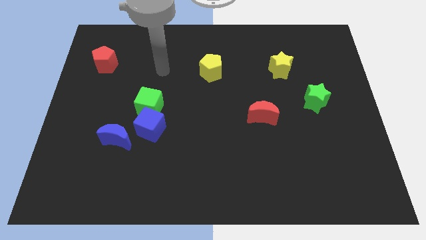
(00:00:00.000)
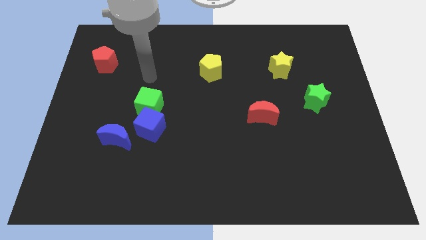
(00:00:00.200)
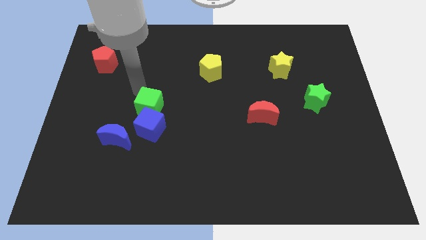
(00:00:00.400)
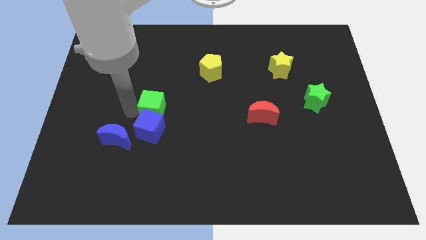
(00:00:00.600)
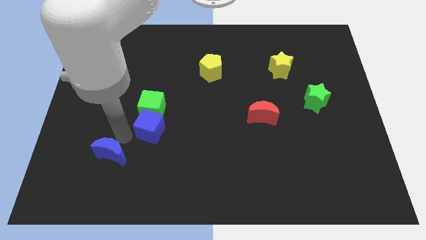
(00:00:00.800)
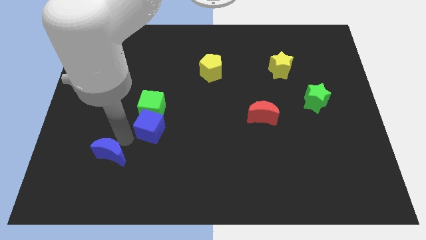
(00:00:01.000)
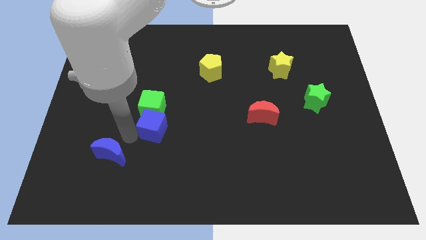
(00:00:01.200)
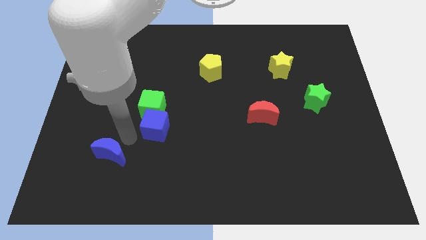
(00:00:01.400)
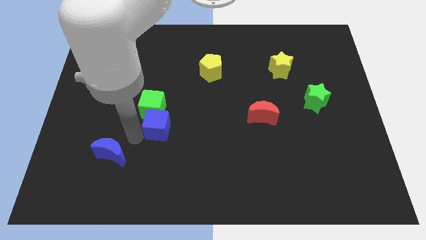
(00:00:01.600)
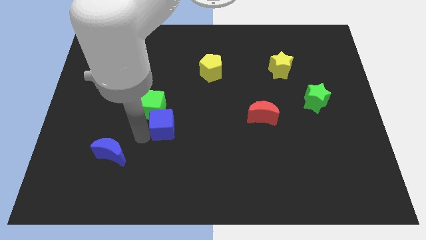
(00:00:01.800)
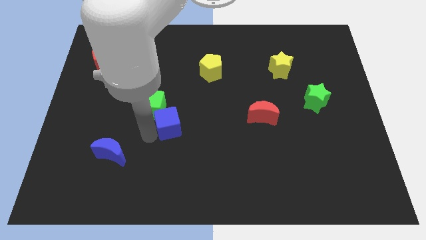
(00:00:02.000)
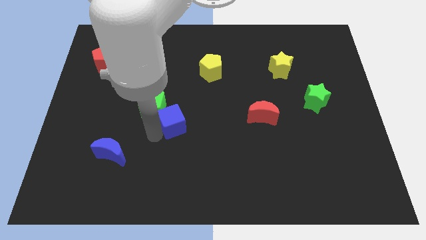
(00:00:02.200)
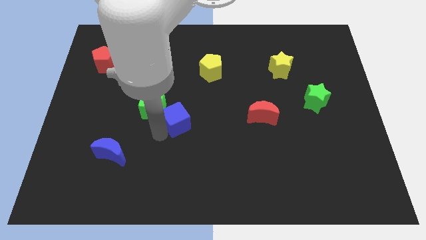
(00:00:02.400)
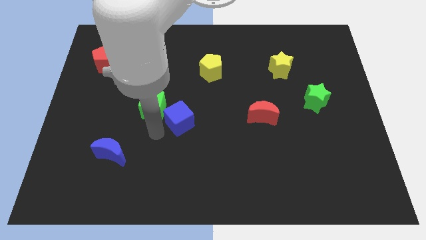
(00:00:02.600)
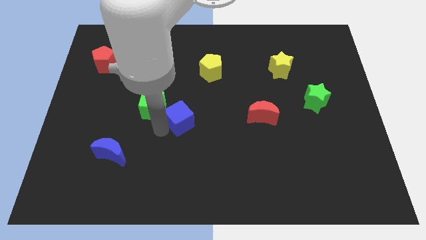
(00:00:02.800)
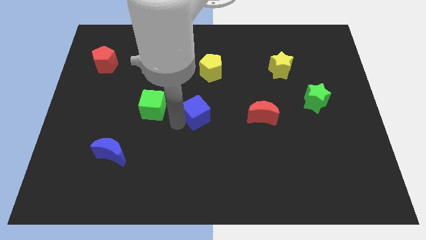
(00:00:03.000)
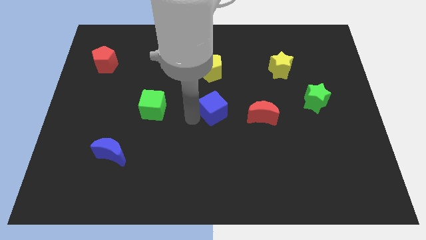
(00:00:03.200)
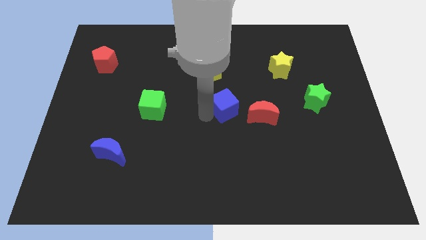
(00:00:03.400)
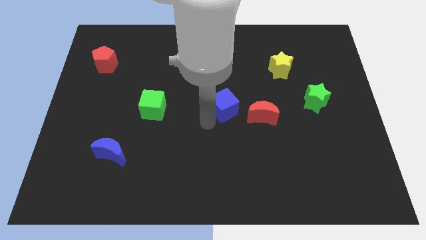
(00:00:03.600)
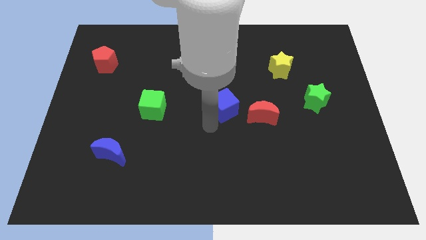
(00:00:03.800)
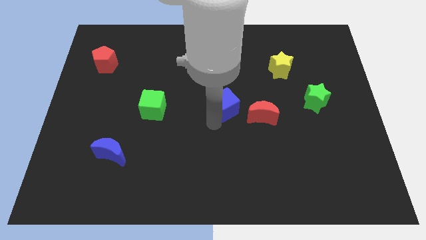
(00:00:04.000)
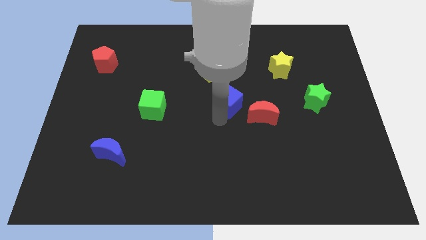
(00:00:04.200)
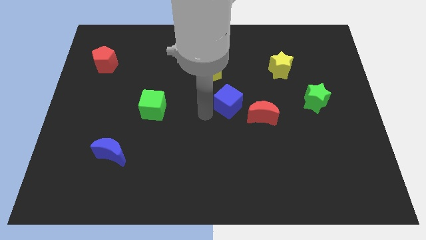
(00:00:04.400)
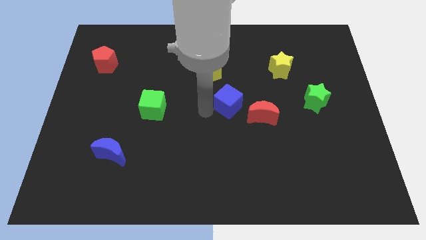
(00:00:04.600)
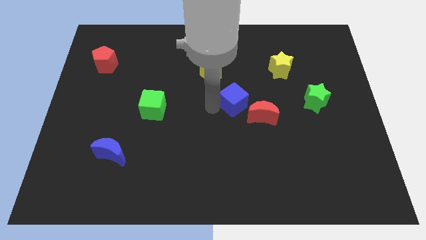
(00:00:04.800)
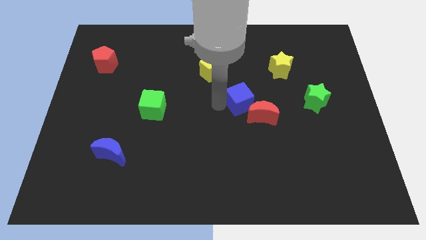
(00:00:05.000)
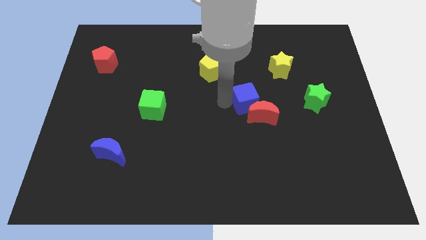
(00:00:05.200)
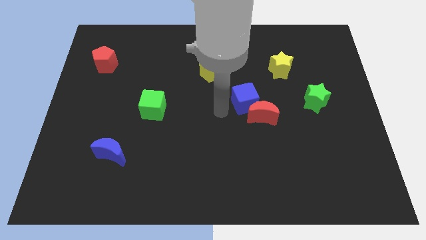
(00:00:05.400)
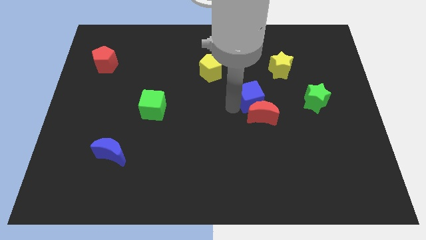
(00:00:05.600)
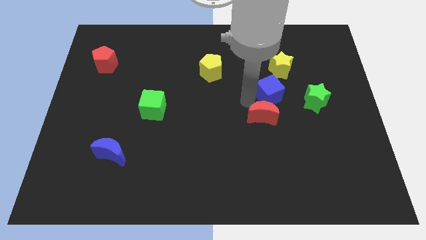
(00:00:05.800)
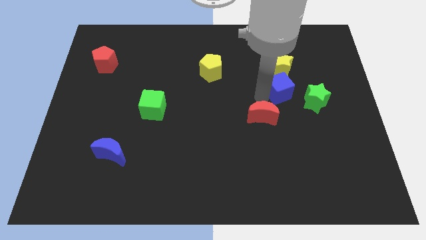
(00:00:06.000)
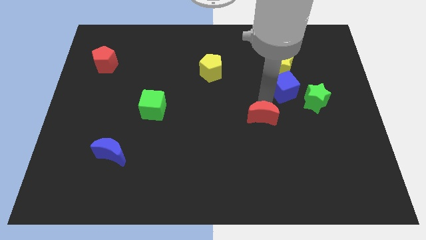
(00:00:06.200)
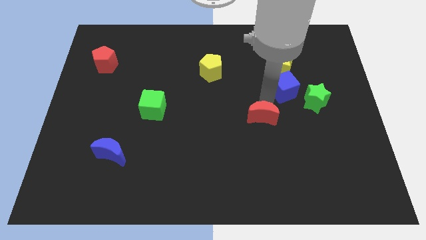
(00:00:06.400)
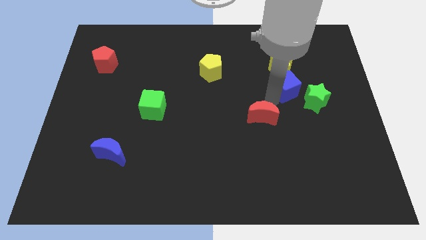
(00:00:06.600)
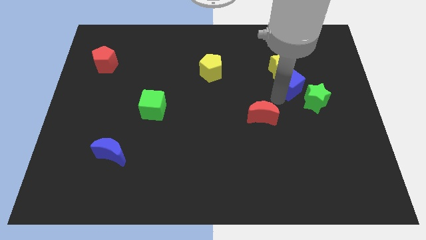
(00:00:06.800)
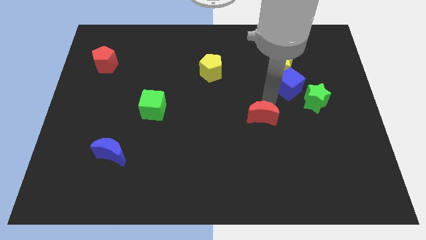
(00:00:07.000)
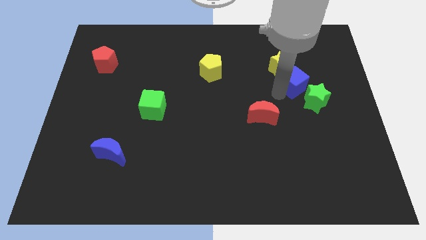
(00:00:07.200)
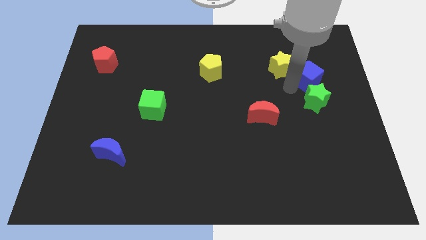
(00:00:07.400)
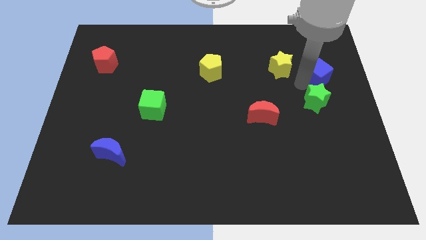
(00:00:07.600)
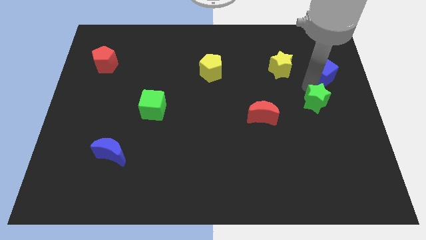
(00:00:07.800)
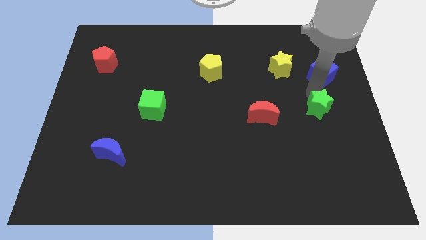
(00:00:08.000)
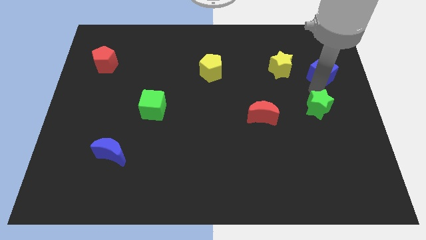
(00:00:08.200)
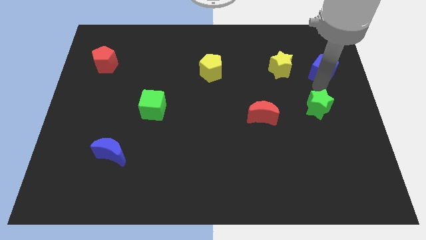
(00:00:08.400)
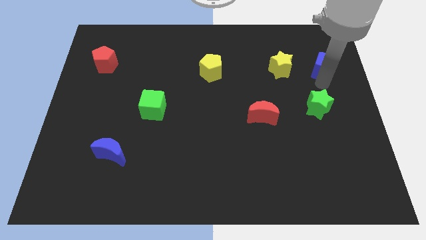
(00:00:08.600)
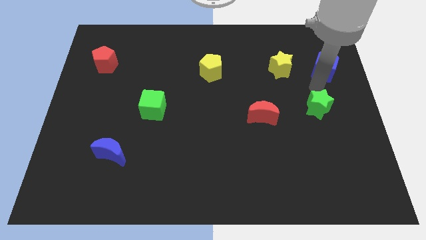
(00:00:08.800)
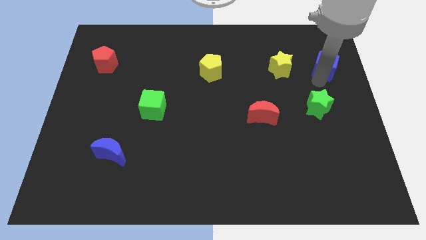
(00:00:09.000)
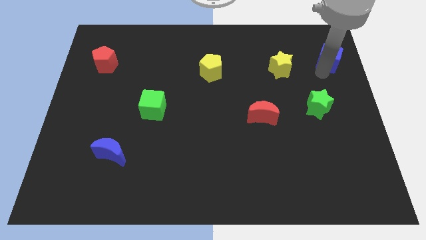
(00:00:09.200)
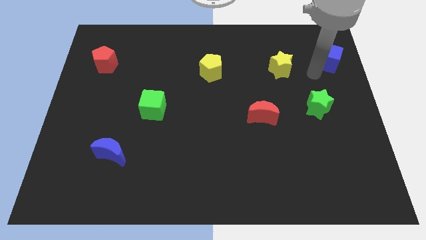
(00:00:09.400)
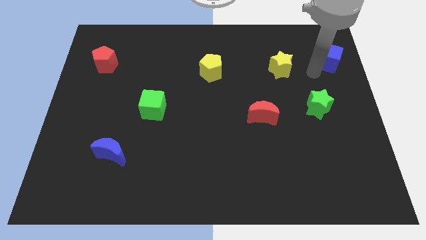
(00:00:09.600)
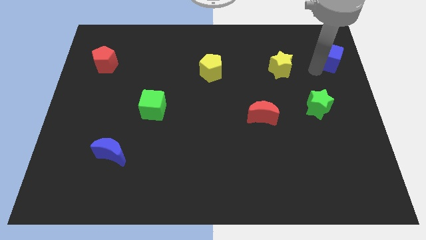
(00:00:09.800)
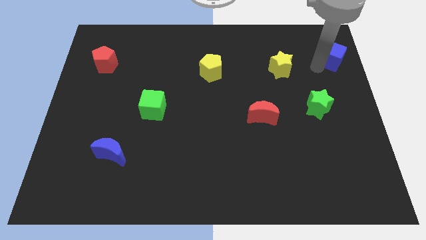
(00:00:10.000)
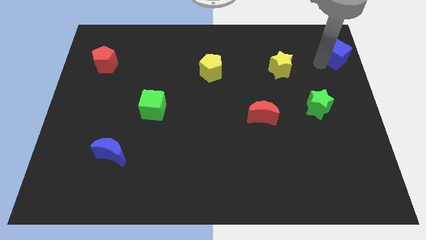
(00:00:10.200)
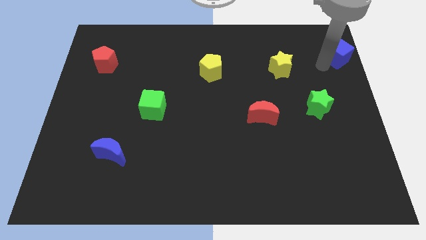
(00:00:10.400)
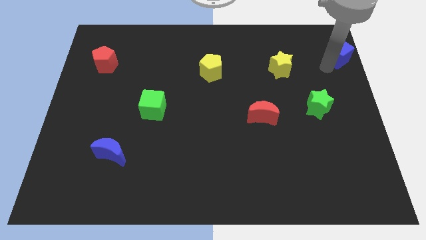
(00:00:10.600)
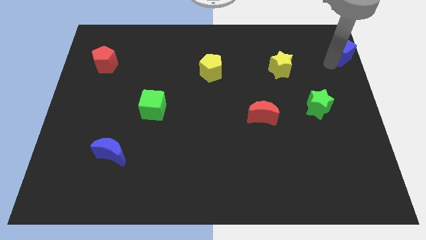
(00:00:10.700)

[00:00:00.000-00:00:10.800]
move the blue cube to the top right

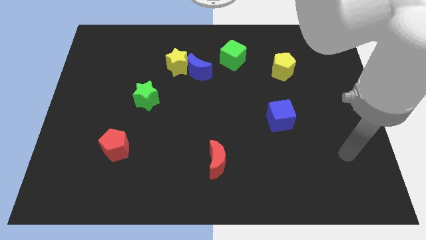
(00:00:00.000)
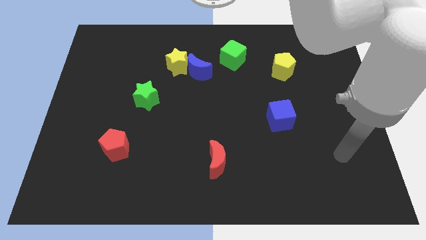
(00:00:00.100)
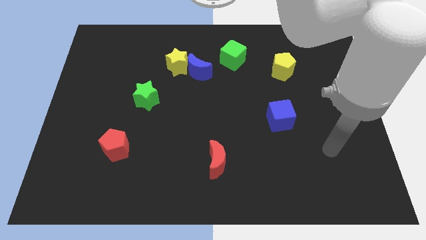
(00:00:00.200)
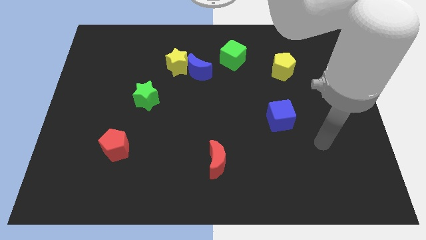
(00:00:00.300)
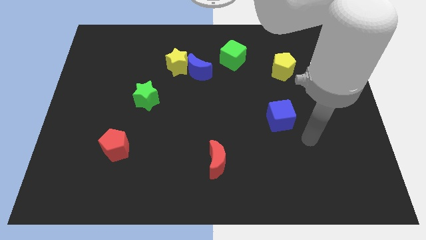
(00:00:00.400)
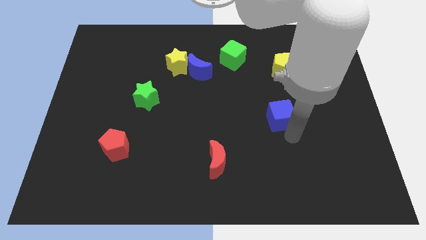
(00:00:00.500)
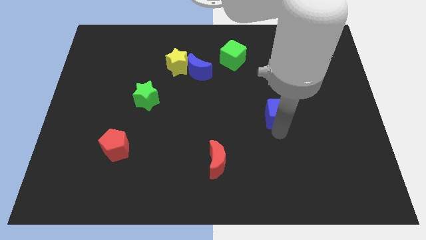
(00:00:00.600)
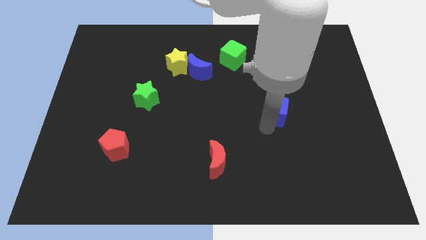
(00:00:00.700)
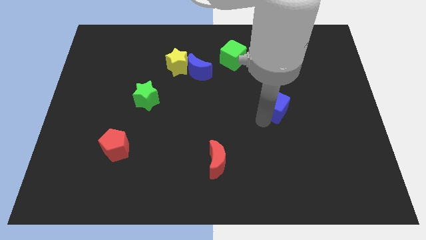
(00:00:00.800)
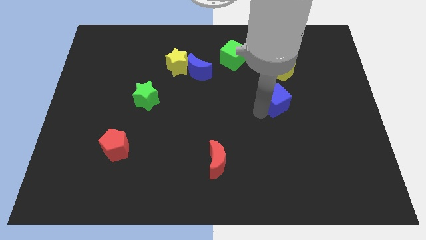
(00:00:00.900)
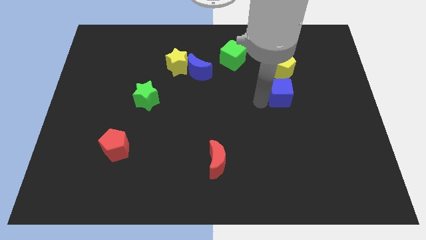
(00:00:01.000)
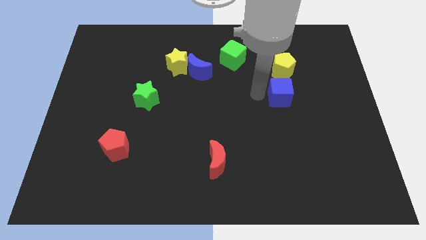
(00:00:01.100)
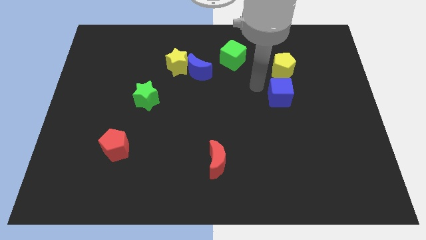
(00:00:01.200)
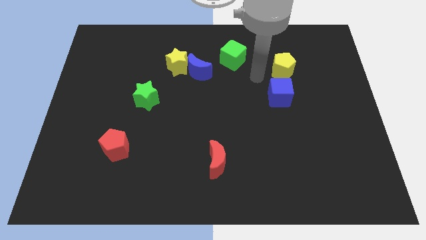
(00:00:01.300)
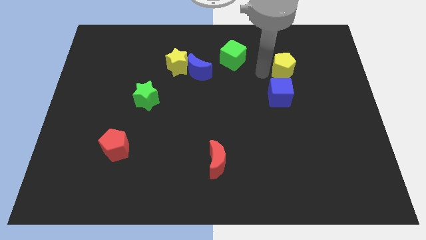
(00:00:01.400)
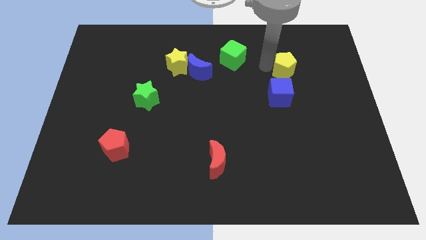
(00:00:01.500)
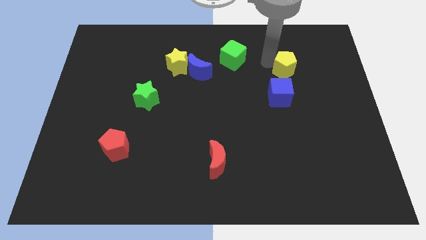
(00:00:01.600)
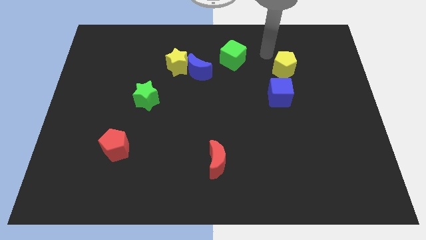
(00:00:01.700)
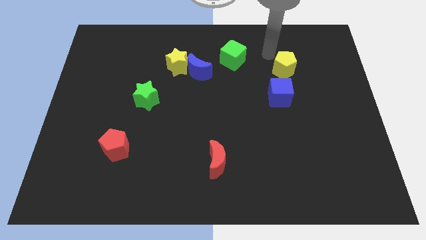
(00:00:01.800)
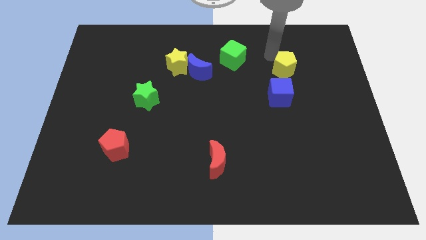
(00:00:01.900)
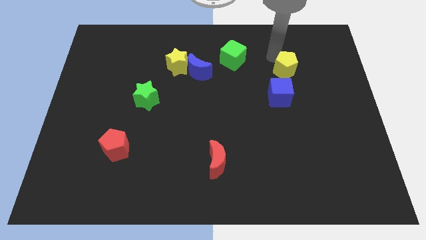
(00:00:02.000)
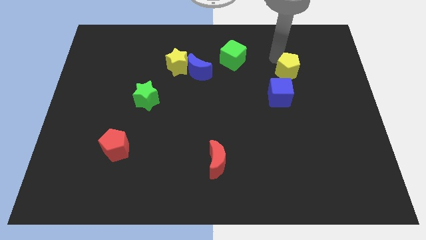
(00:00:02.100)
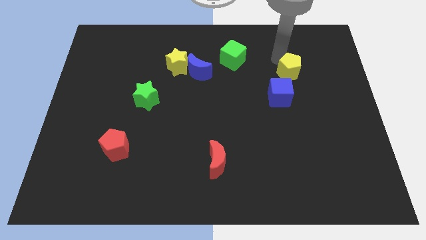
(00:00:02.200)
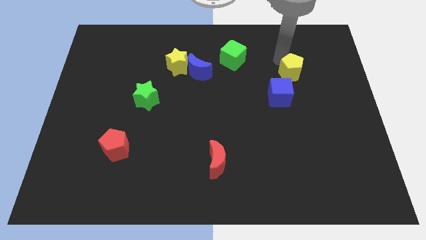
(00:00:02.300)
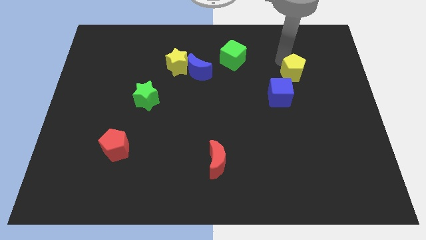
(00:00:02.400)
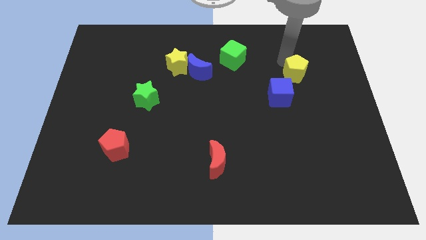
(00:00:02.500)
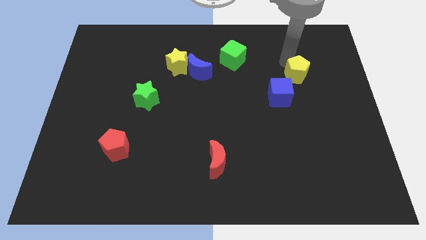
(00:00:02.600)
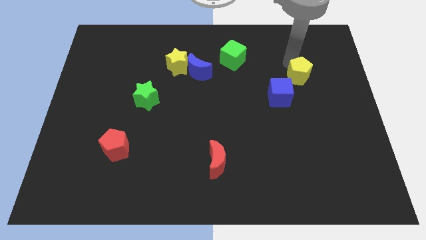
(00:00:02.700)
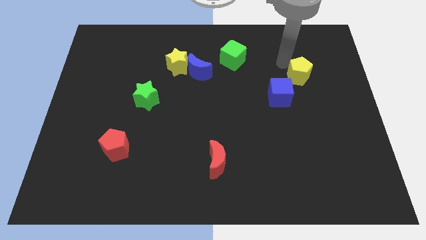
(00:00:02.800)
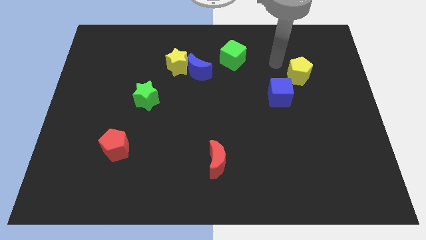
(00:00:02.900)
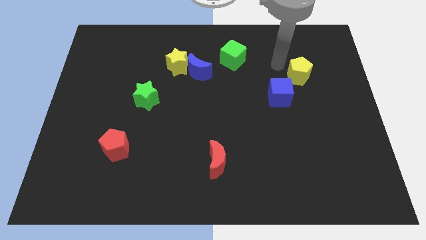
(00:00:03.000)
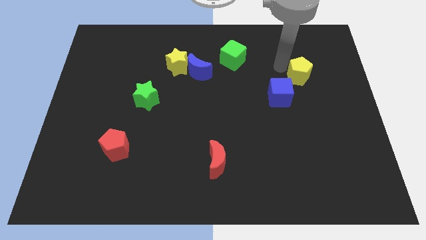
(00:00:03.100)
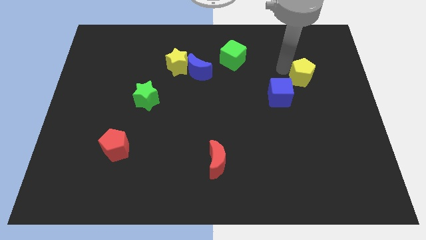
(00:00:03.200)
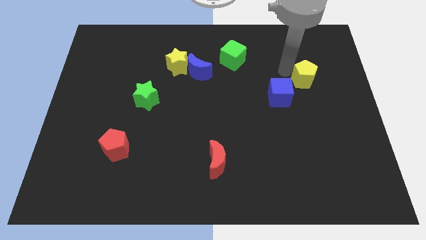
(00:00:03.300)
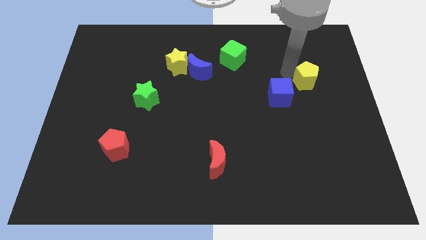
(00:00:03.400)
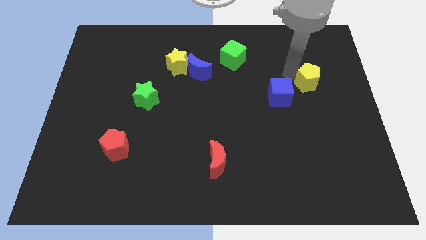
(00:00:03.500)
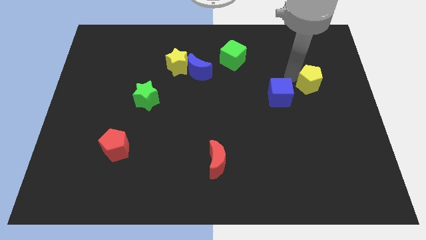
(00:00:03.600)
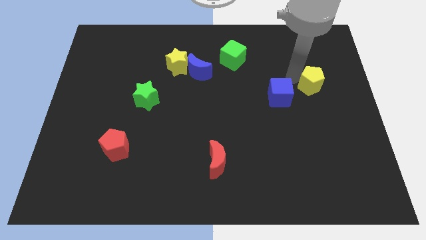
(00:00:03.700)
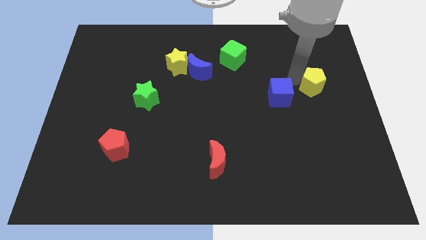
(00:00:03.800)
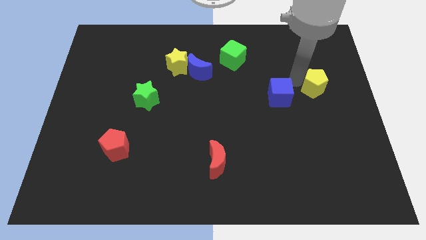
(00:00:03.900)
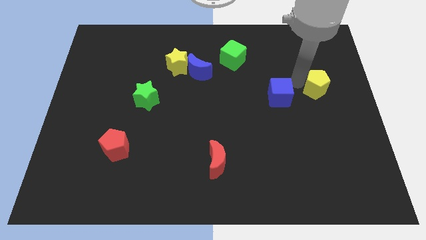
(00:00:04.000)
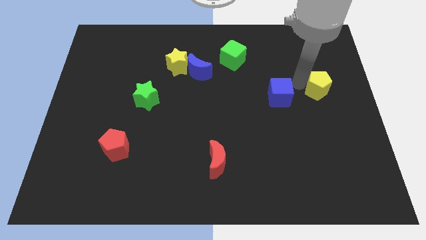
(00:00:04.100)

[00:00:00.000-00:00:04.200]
put the yellow pentagon to the right side
